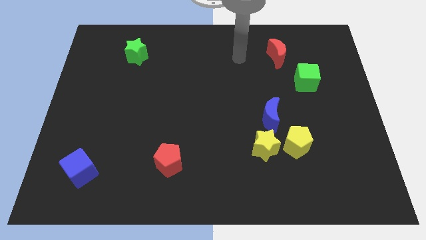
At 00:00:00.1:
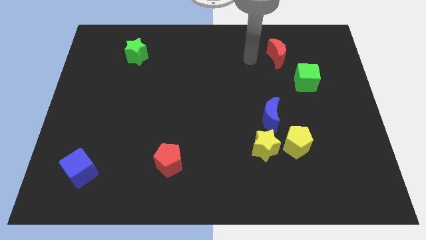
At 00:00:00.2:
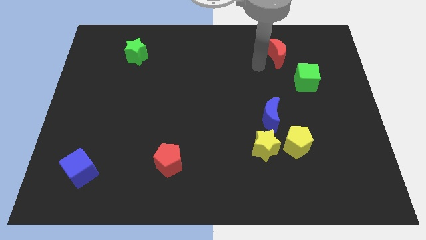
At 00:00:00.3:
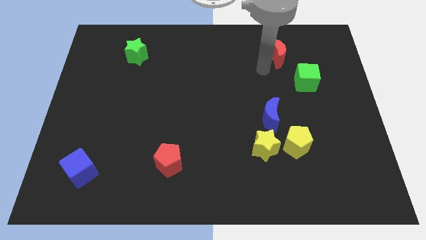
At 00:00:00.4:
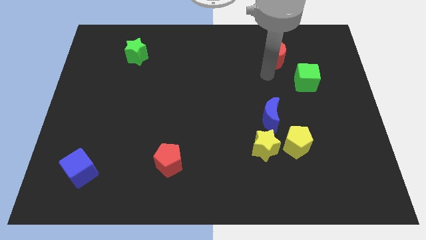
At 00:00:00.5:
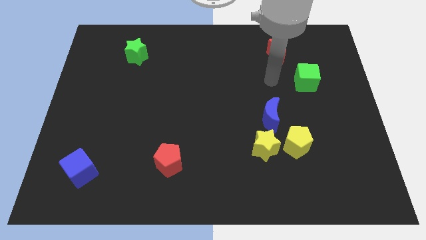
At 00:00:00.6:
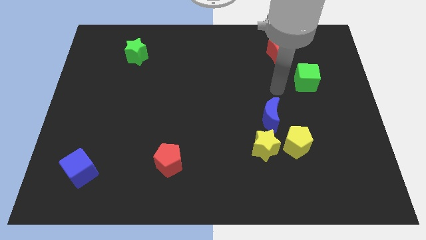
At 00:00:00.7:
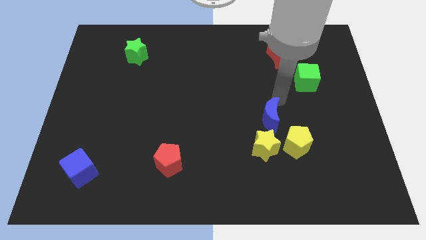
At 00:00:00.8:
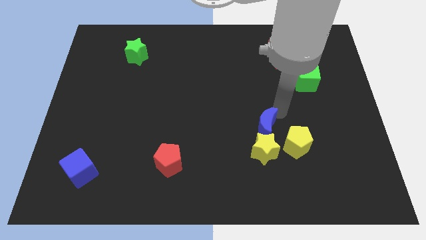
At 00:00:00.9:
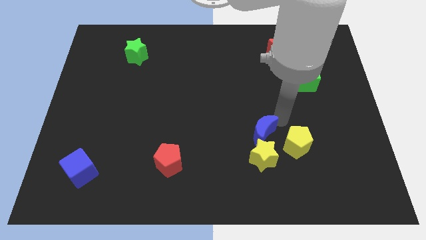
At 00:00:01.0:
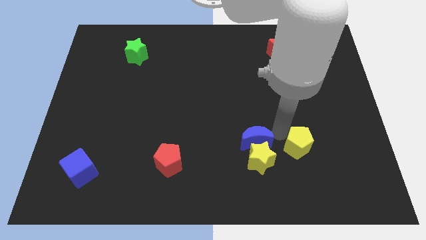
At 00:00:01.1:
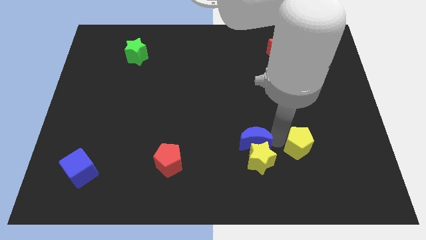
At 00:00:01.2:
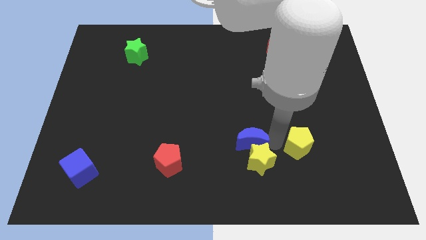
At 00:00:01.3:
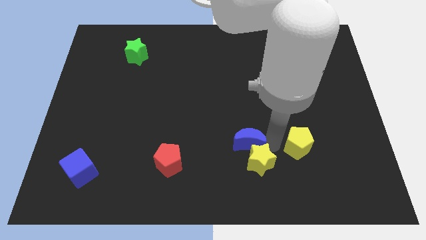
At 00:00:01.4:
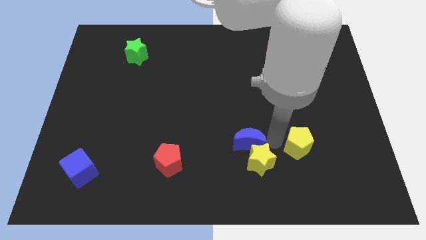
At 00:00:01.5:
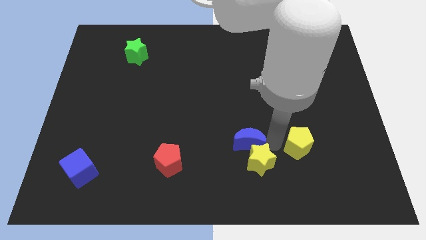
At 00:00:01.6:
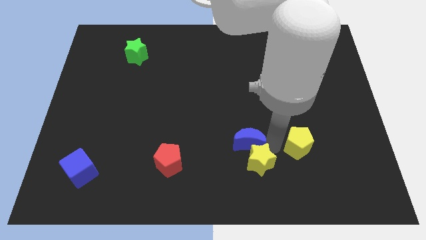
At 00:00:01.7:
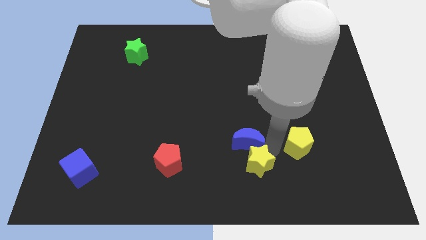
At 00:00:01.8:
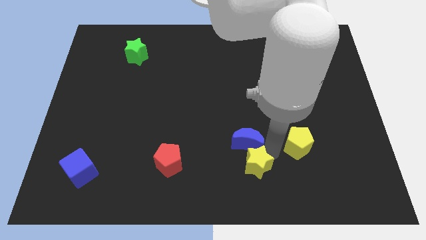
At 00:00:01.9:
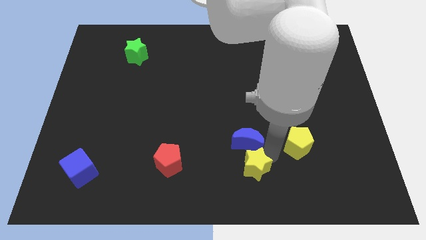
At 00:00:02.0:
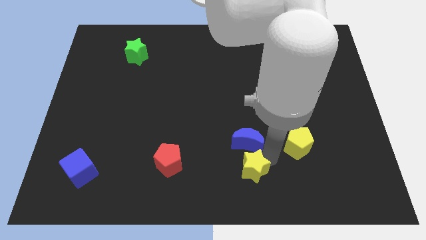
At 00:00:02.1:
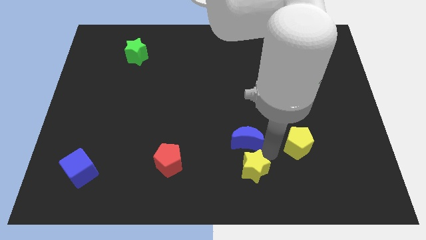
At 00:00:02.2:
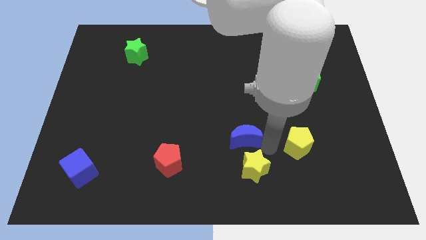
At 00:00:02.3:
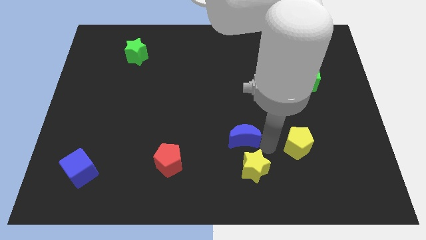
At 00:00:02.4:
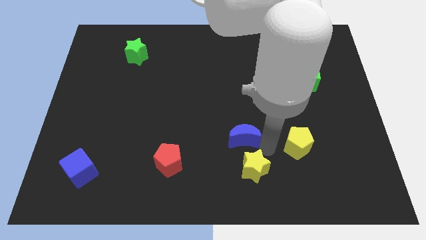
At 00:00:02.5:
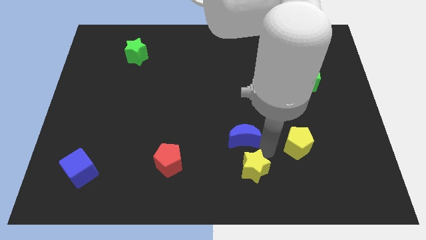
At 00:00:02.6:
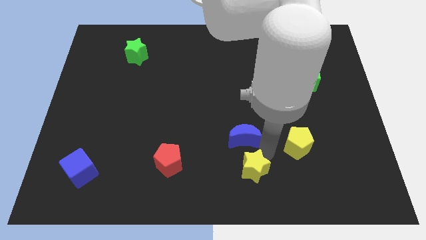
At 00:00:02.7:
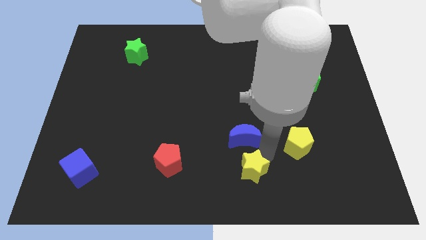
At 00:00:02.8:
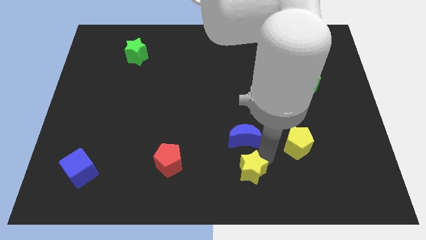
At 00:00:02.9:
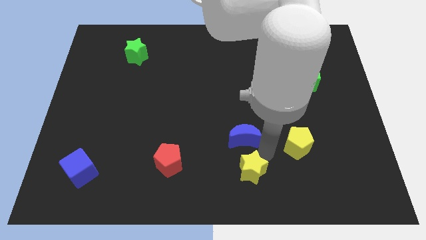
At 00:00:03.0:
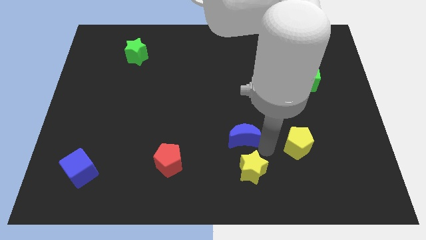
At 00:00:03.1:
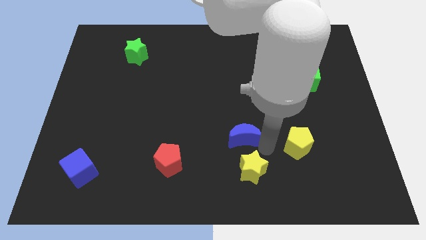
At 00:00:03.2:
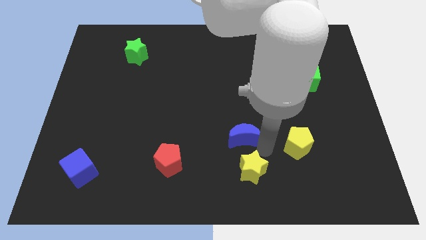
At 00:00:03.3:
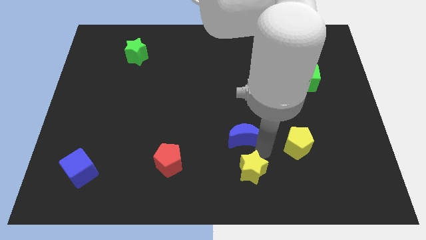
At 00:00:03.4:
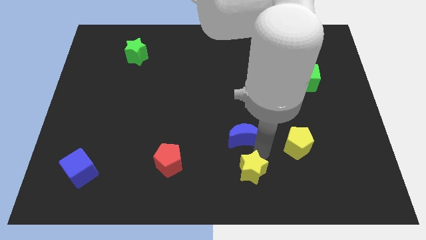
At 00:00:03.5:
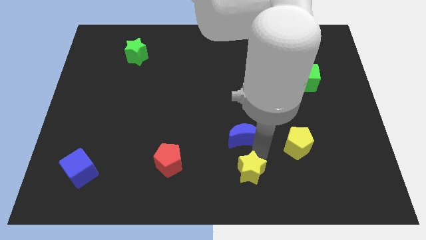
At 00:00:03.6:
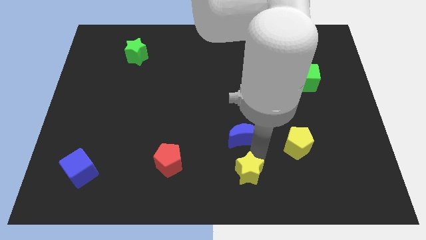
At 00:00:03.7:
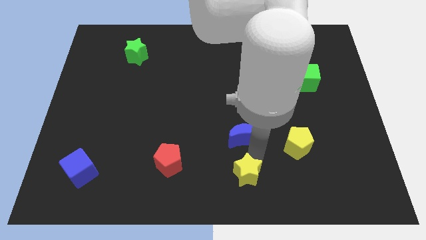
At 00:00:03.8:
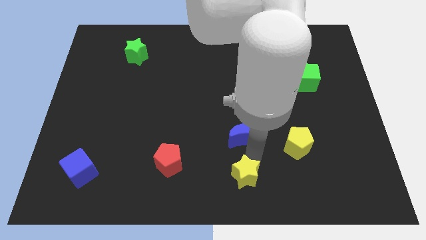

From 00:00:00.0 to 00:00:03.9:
pull the yellow star apart from the yellow pentagon and blue moon

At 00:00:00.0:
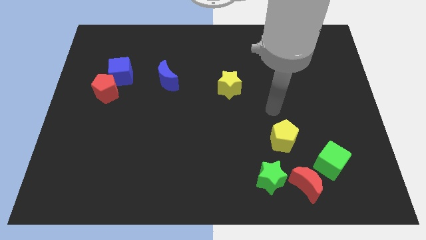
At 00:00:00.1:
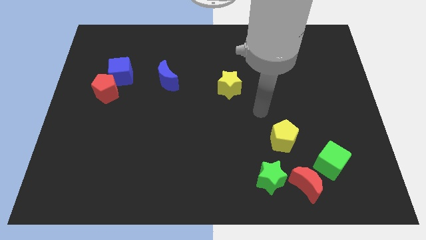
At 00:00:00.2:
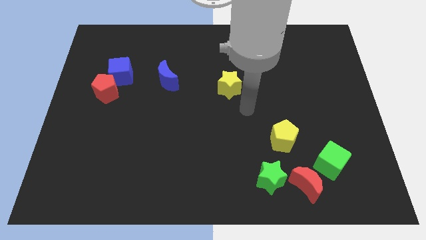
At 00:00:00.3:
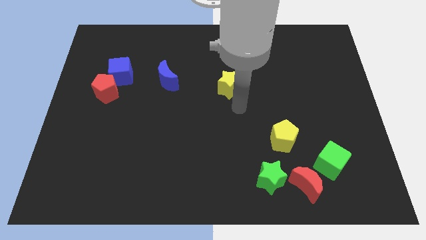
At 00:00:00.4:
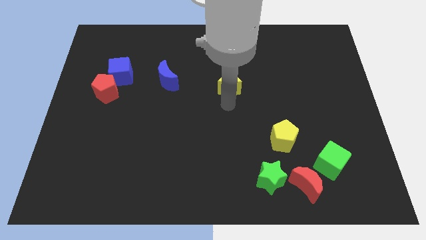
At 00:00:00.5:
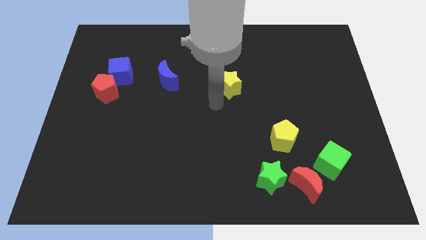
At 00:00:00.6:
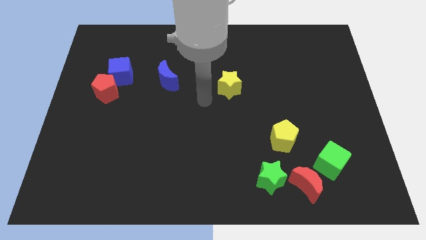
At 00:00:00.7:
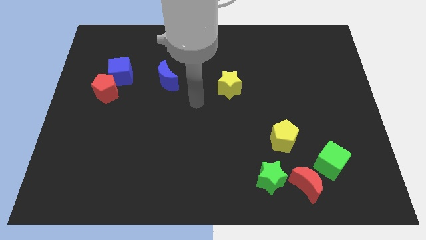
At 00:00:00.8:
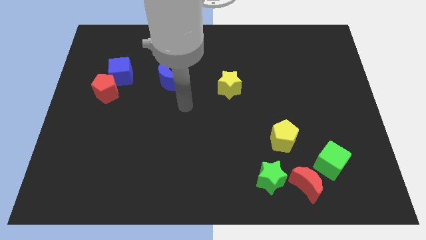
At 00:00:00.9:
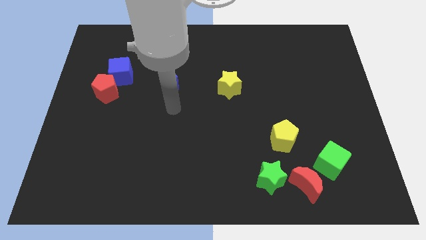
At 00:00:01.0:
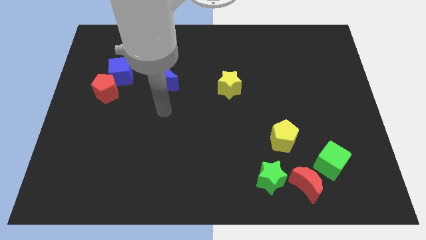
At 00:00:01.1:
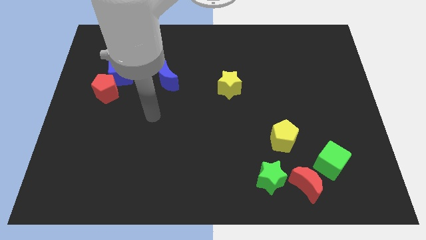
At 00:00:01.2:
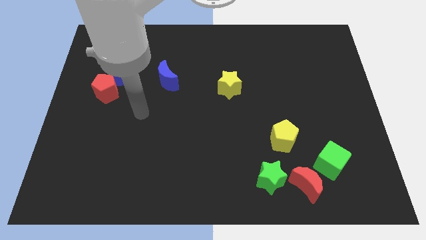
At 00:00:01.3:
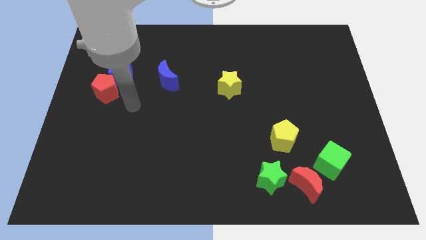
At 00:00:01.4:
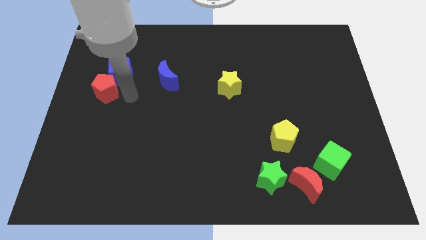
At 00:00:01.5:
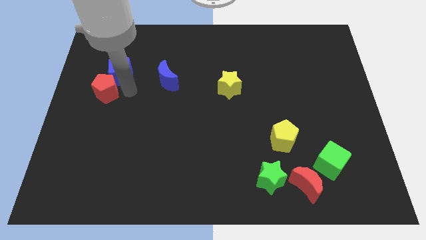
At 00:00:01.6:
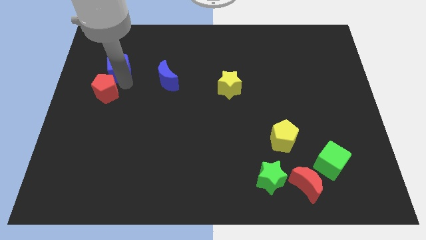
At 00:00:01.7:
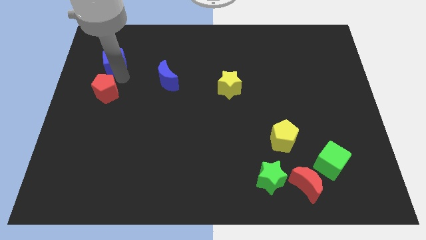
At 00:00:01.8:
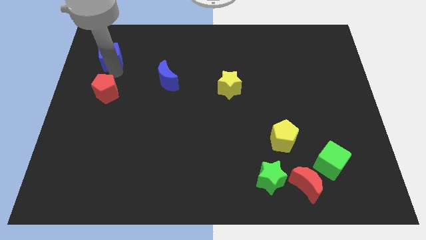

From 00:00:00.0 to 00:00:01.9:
pull the red pentagon apart from the blue cube

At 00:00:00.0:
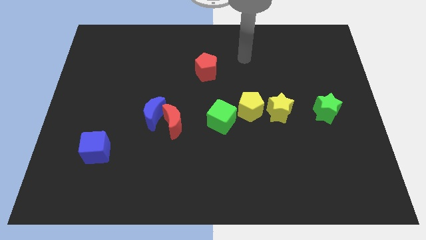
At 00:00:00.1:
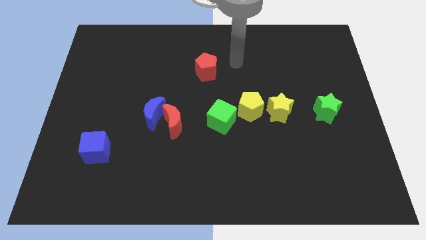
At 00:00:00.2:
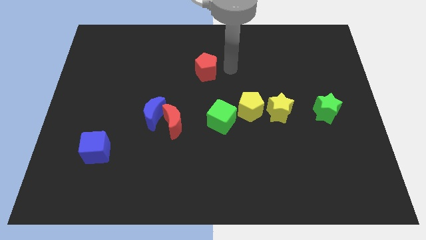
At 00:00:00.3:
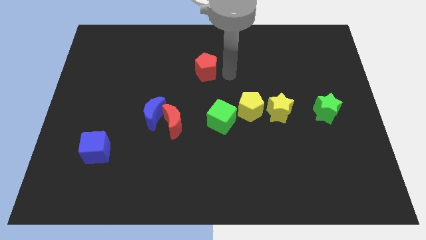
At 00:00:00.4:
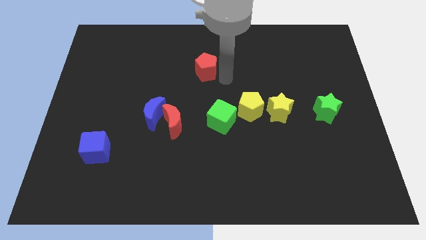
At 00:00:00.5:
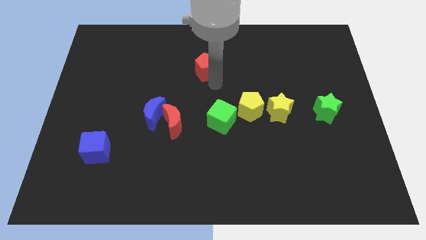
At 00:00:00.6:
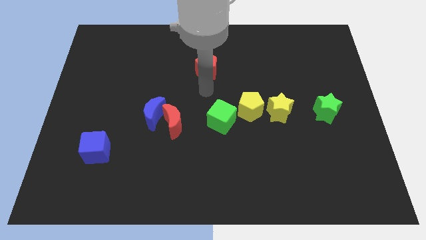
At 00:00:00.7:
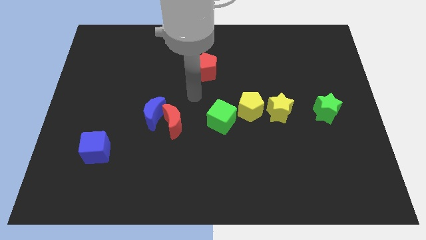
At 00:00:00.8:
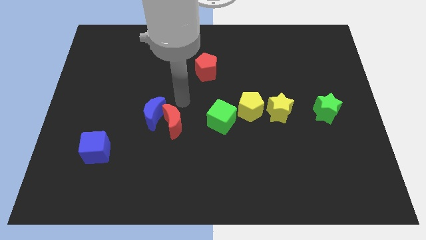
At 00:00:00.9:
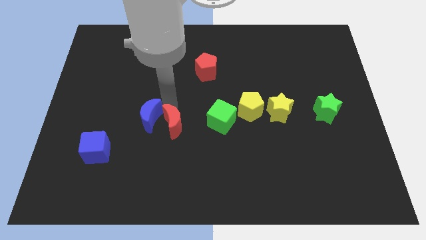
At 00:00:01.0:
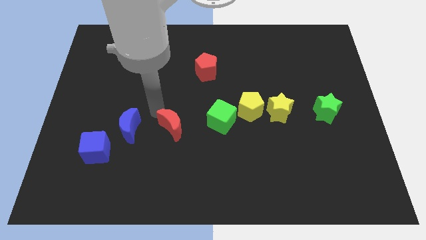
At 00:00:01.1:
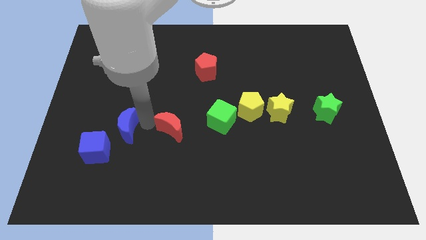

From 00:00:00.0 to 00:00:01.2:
move the red moon away from the blue moon

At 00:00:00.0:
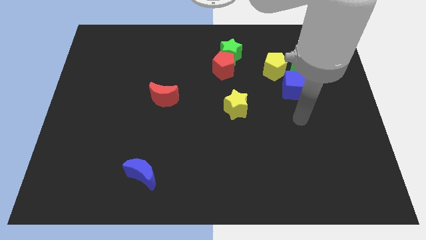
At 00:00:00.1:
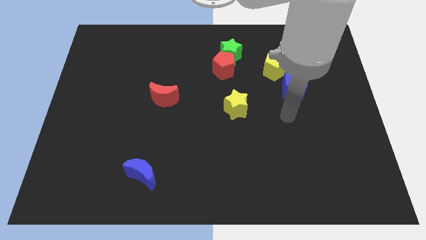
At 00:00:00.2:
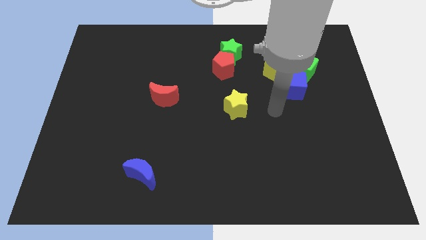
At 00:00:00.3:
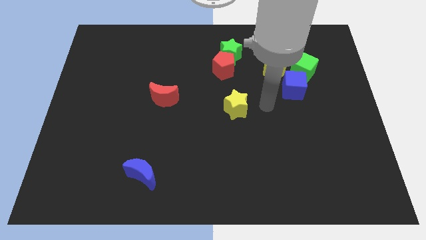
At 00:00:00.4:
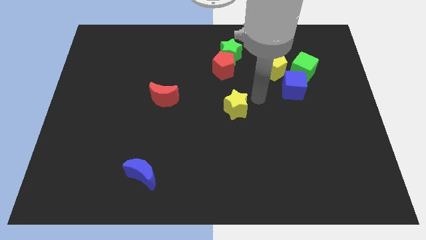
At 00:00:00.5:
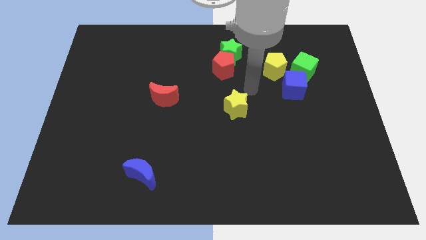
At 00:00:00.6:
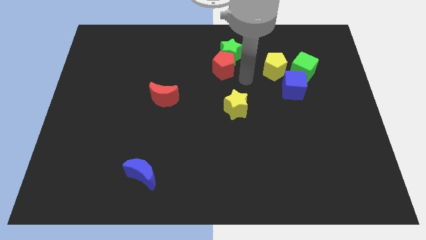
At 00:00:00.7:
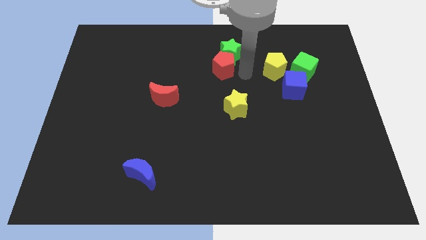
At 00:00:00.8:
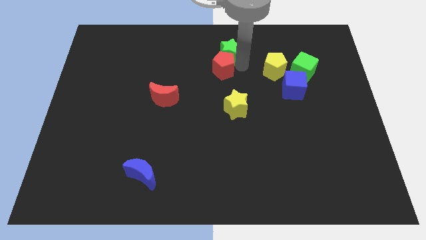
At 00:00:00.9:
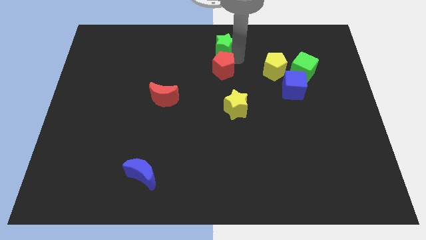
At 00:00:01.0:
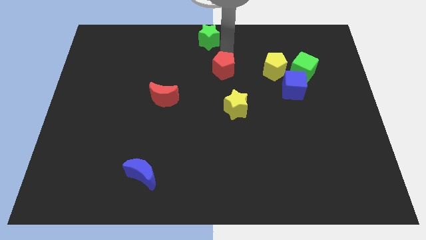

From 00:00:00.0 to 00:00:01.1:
pull the red pentagon apart from the green star

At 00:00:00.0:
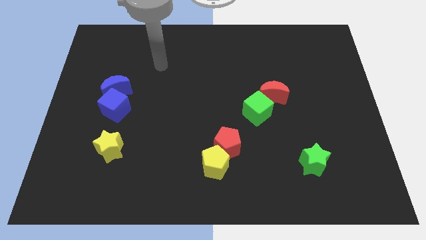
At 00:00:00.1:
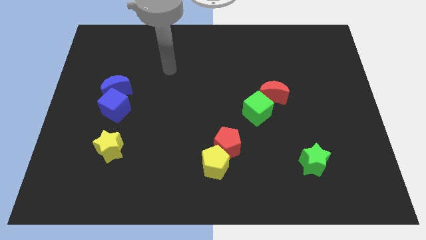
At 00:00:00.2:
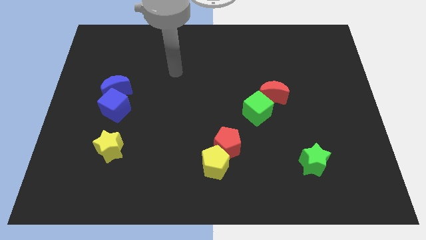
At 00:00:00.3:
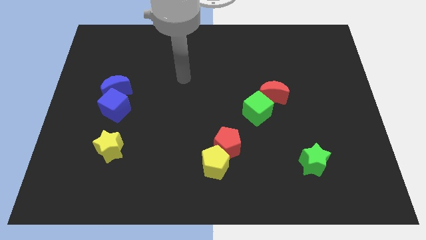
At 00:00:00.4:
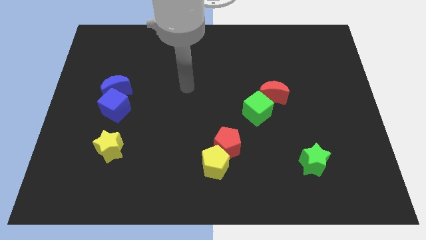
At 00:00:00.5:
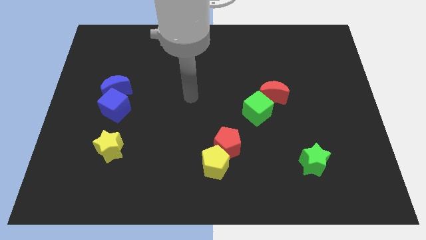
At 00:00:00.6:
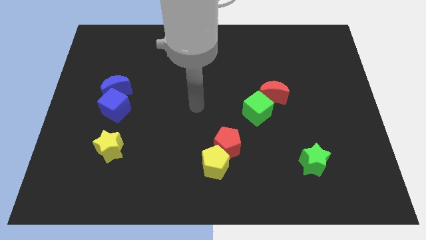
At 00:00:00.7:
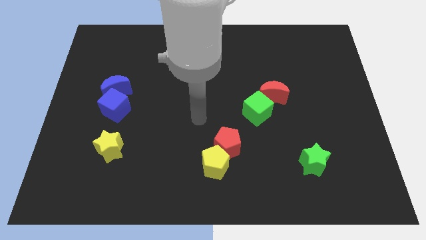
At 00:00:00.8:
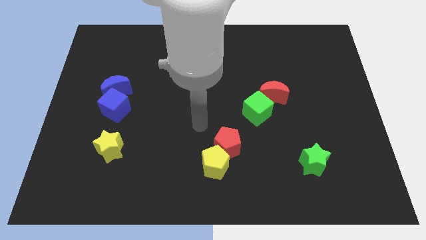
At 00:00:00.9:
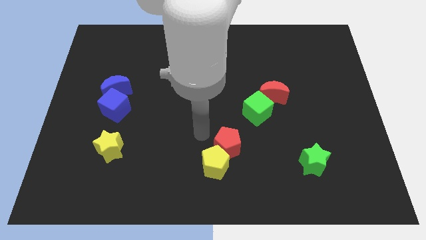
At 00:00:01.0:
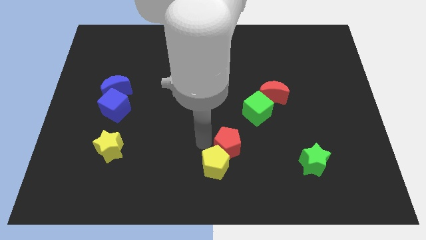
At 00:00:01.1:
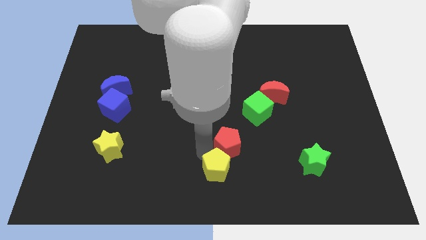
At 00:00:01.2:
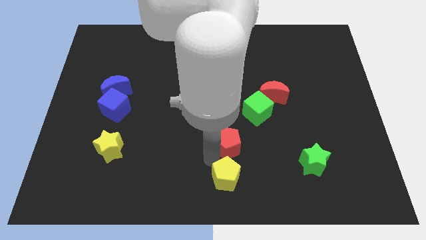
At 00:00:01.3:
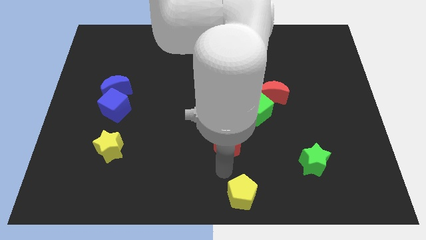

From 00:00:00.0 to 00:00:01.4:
move the red pentagon away from the yellow pentagon
